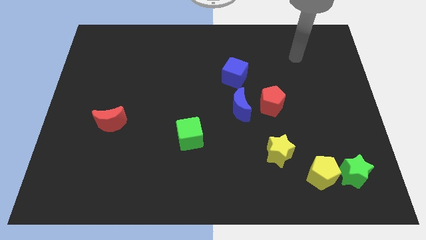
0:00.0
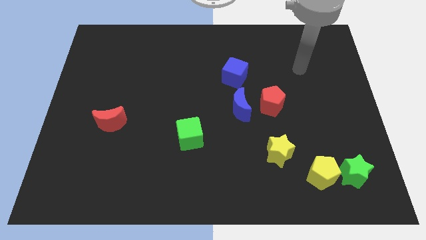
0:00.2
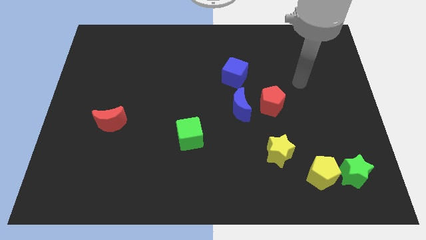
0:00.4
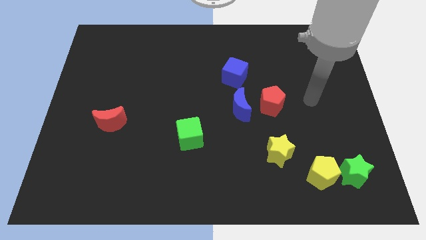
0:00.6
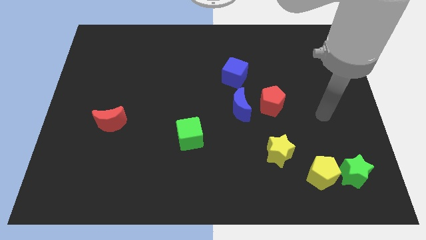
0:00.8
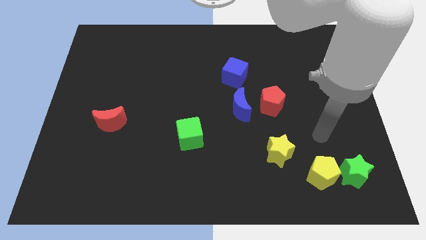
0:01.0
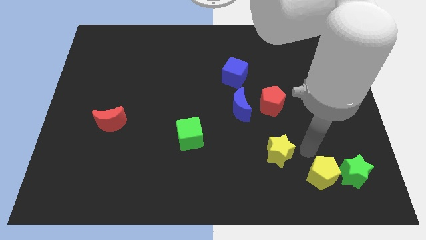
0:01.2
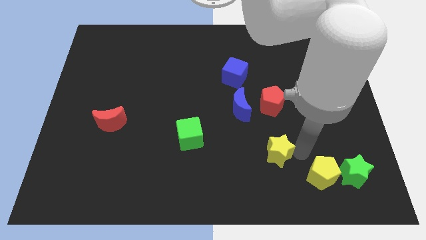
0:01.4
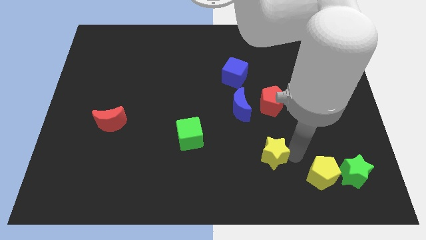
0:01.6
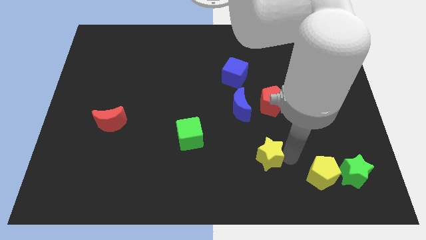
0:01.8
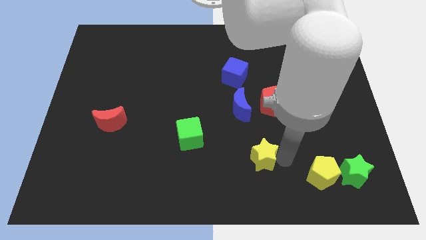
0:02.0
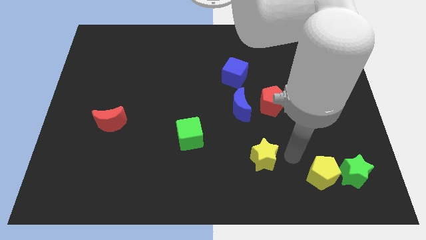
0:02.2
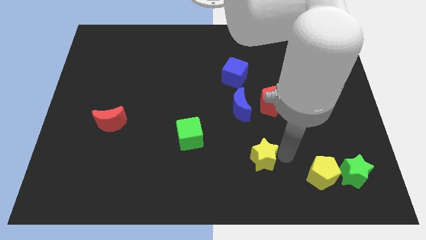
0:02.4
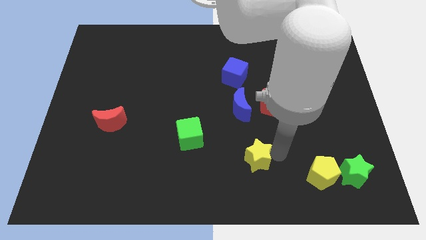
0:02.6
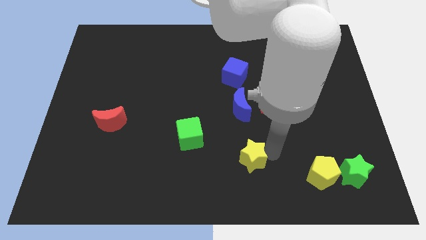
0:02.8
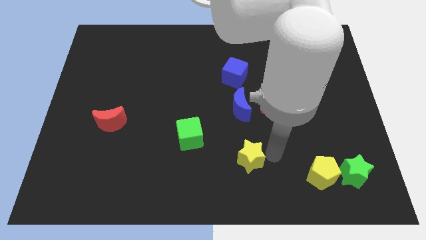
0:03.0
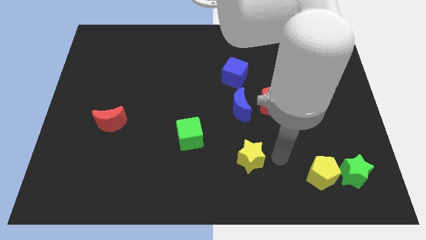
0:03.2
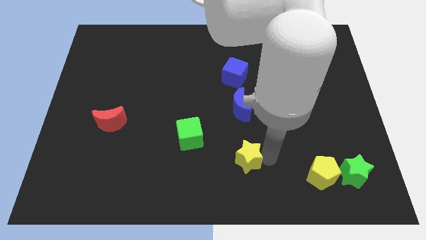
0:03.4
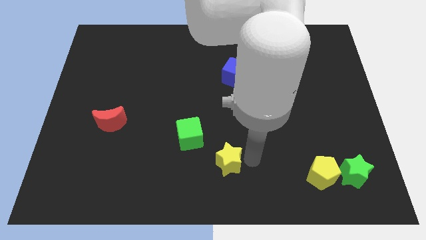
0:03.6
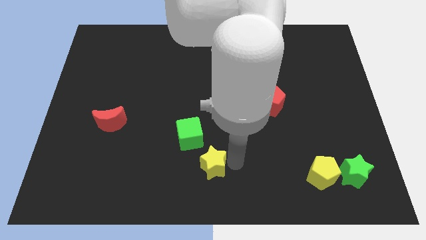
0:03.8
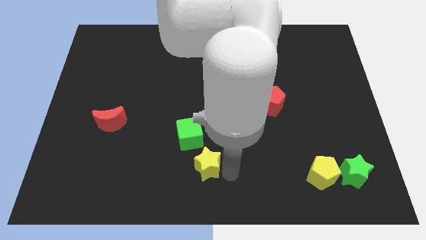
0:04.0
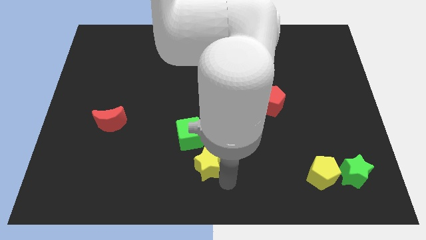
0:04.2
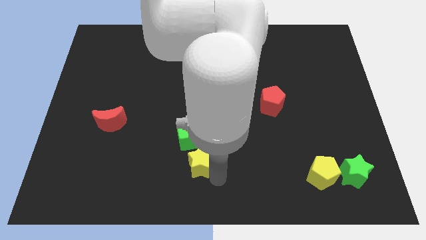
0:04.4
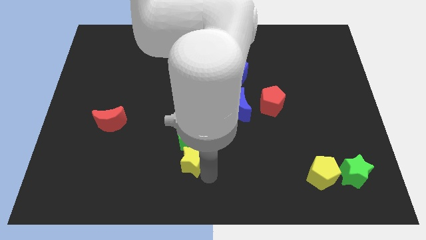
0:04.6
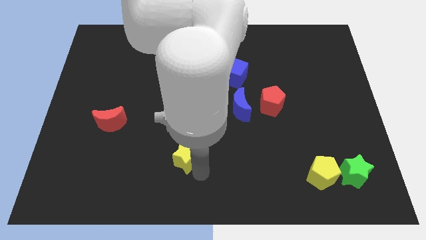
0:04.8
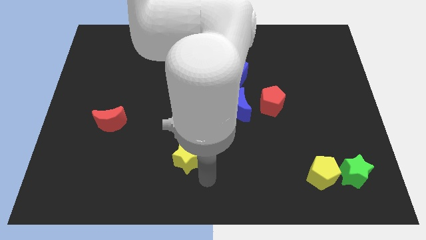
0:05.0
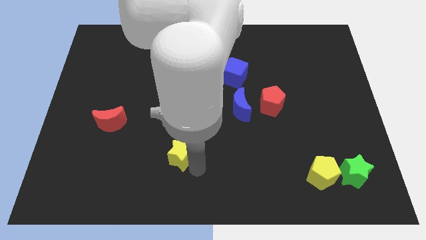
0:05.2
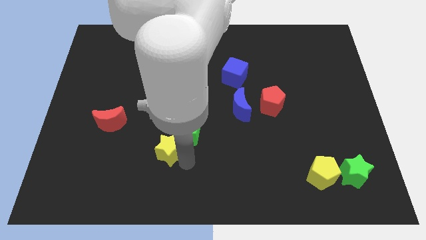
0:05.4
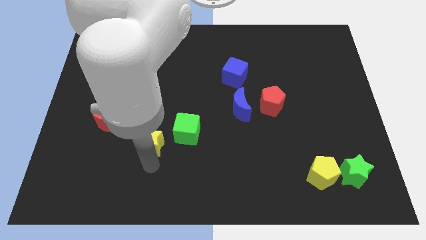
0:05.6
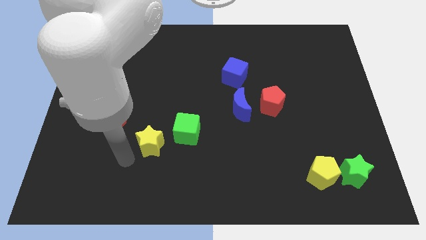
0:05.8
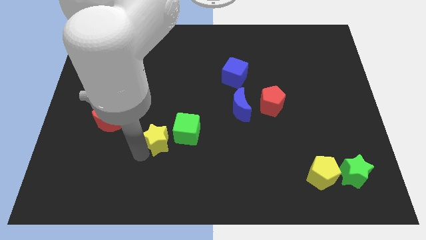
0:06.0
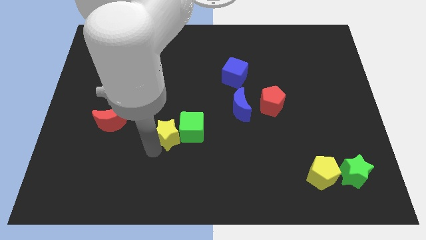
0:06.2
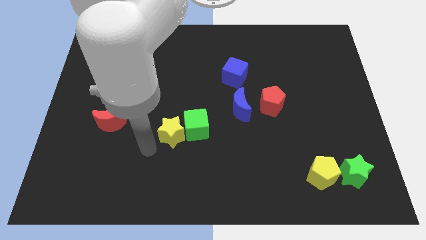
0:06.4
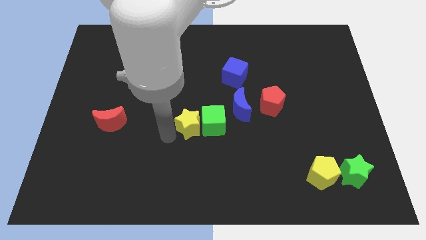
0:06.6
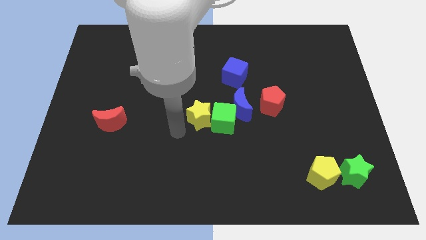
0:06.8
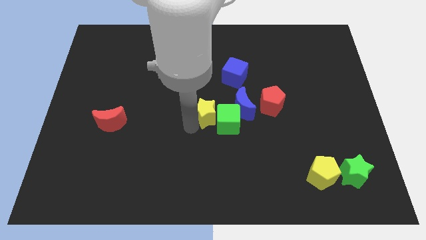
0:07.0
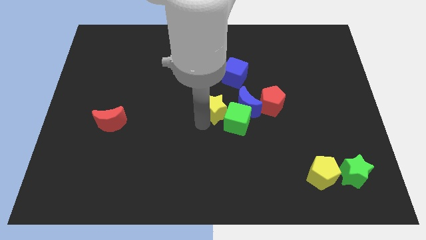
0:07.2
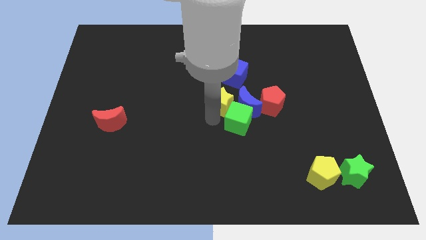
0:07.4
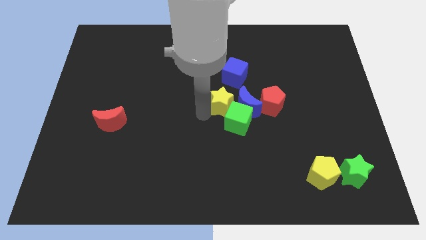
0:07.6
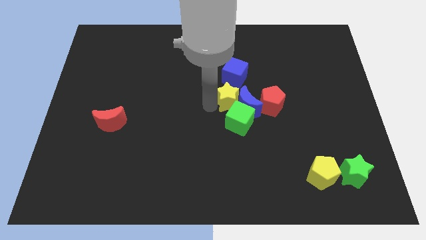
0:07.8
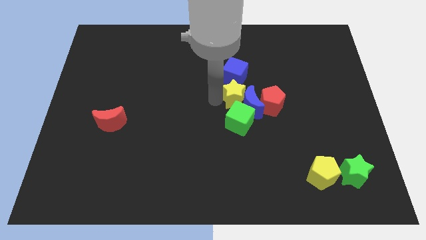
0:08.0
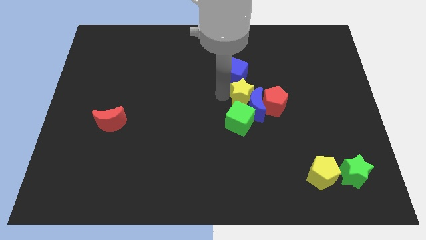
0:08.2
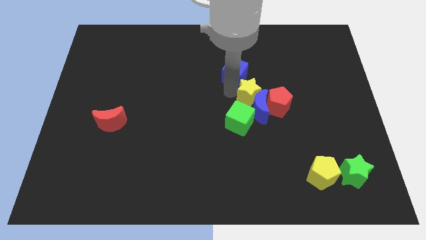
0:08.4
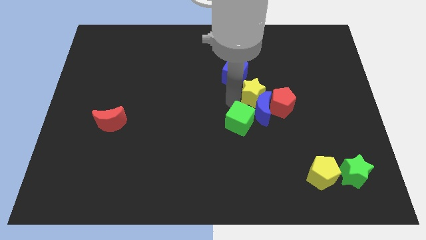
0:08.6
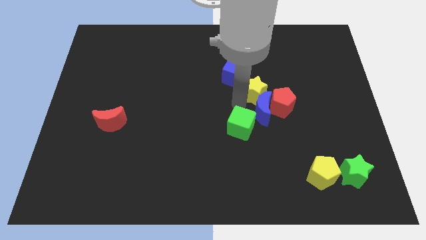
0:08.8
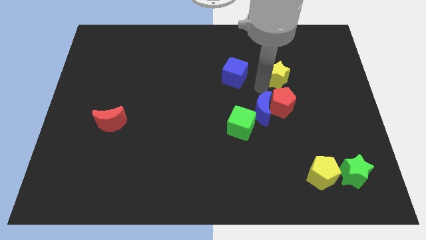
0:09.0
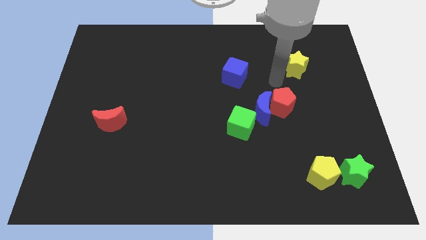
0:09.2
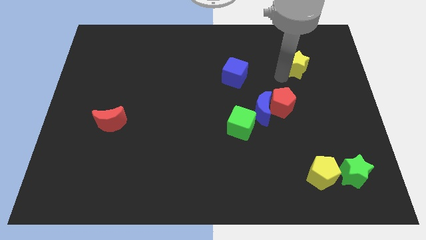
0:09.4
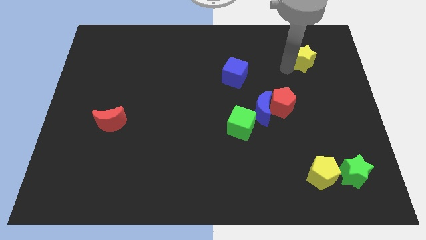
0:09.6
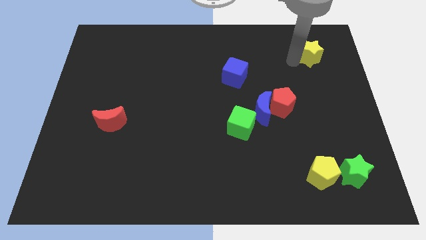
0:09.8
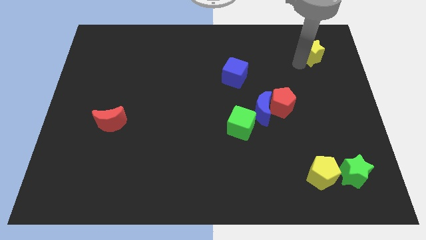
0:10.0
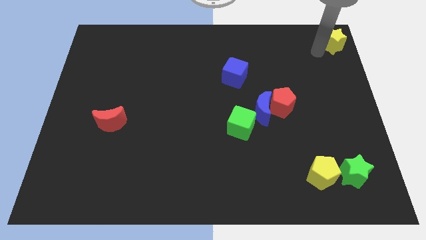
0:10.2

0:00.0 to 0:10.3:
push the yellow star to the upper right corner

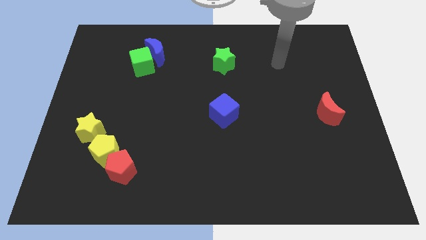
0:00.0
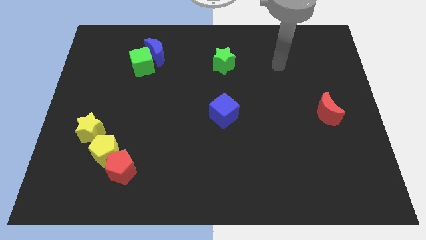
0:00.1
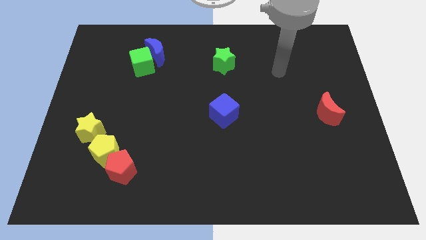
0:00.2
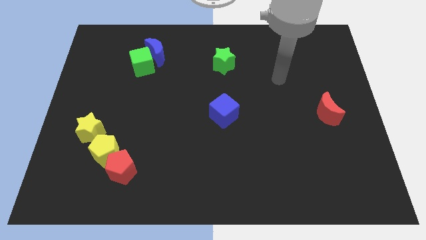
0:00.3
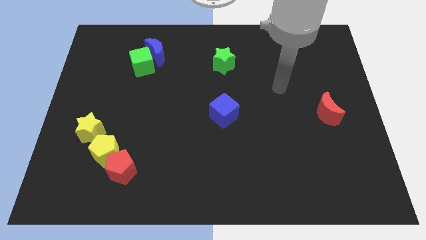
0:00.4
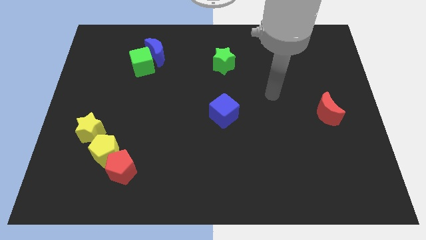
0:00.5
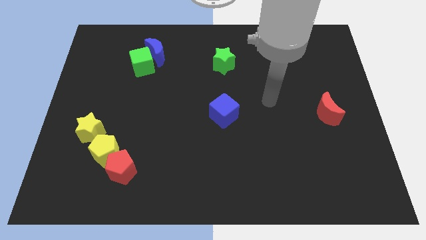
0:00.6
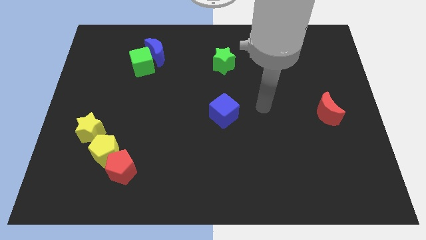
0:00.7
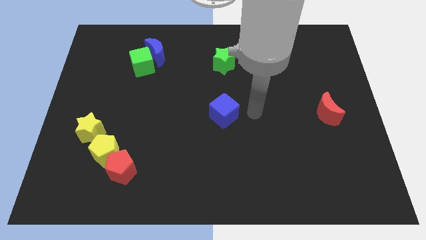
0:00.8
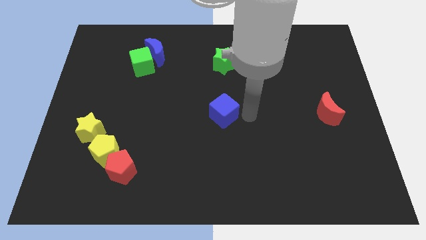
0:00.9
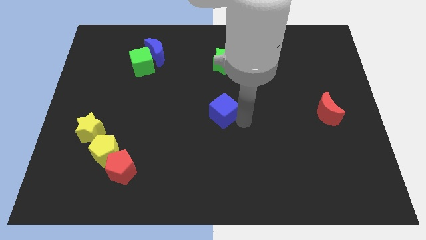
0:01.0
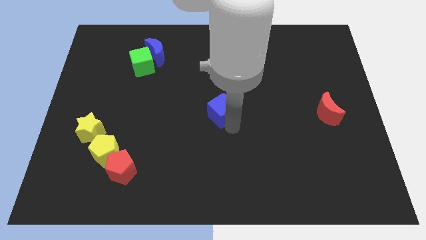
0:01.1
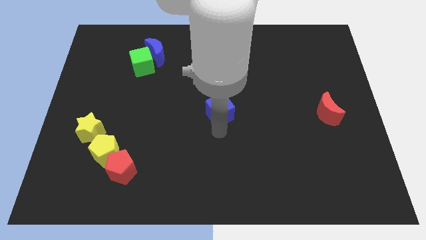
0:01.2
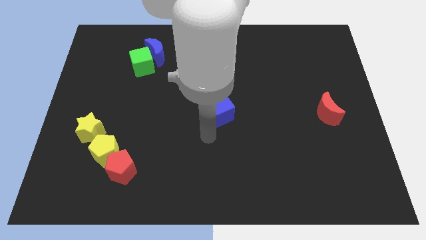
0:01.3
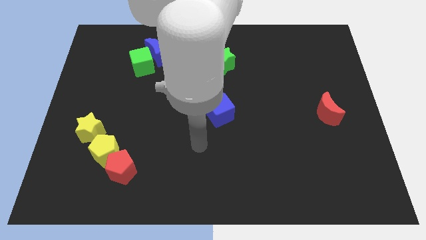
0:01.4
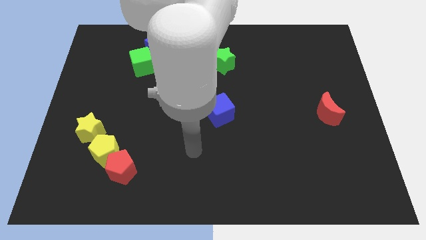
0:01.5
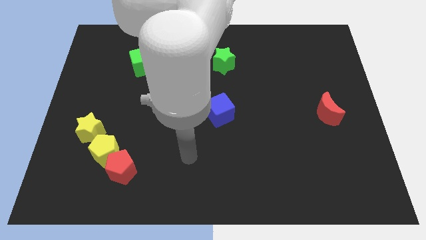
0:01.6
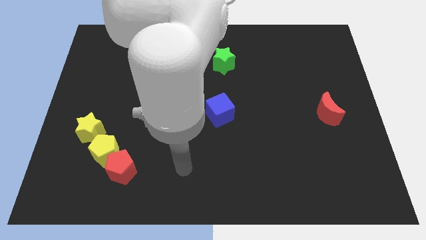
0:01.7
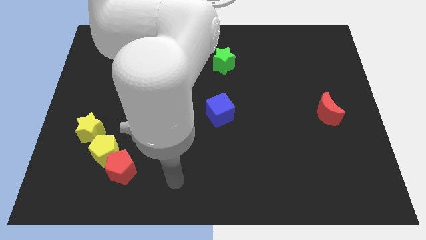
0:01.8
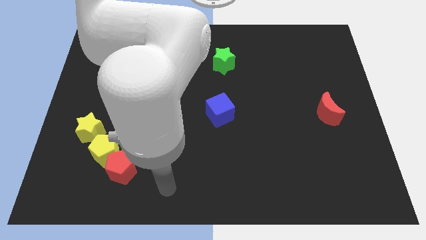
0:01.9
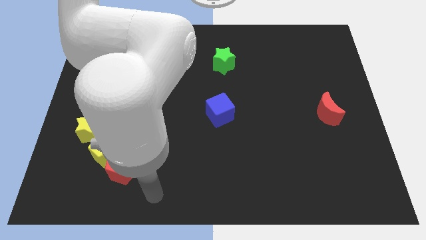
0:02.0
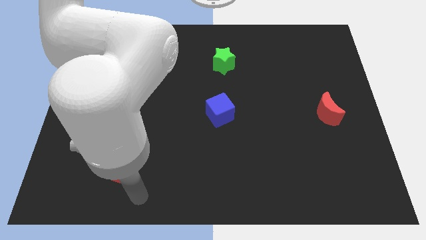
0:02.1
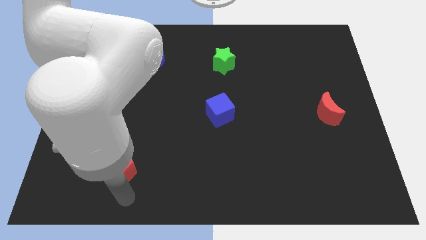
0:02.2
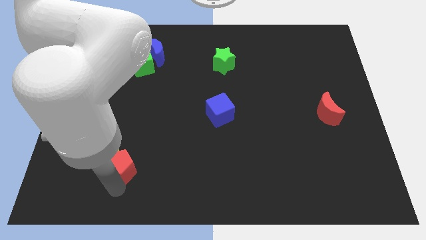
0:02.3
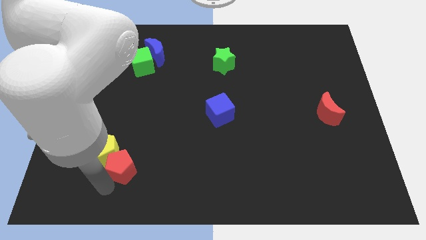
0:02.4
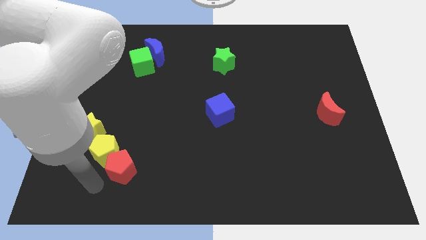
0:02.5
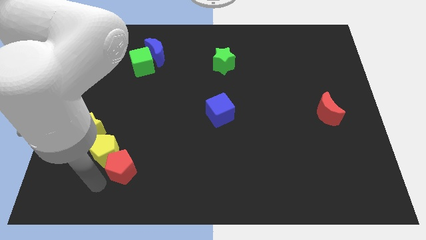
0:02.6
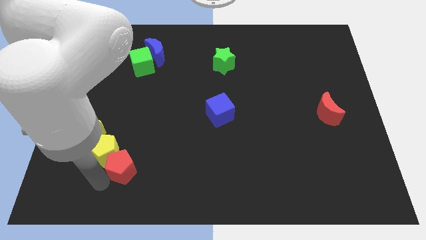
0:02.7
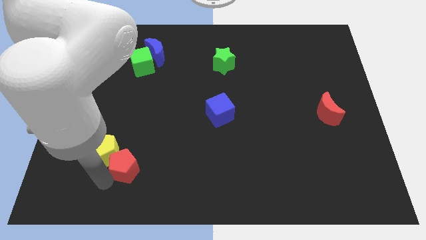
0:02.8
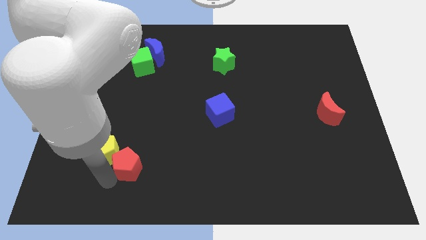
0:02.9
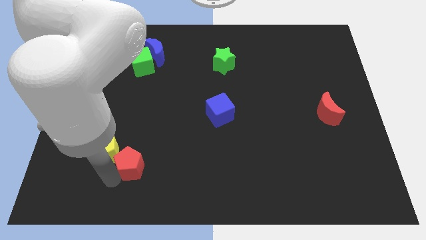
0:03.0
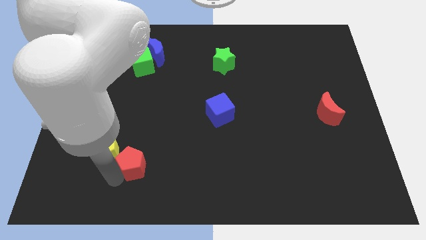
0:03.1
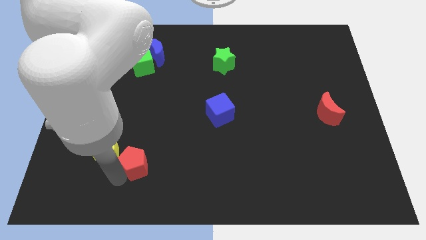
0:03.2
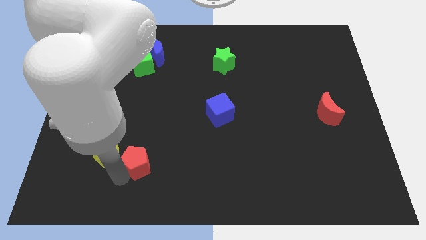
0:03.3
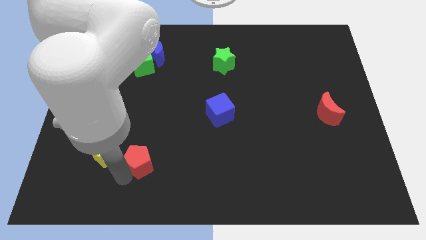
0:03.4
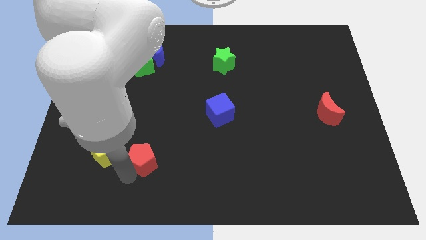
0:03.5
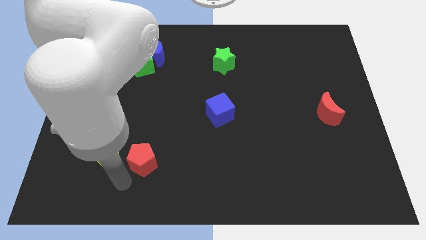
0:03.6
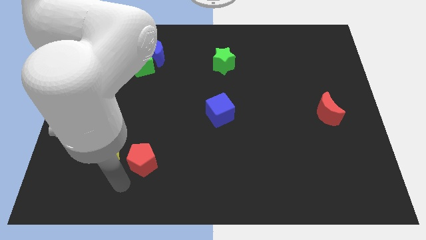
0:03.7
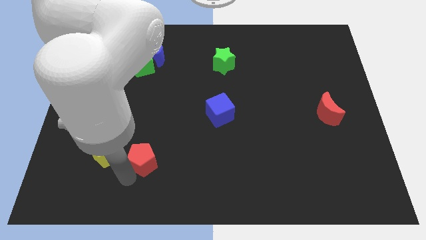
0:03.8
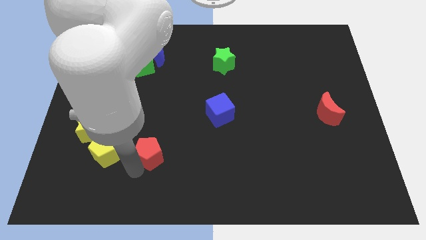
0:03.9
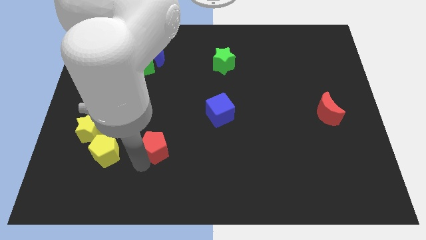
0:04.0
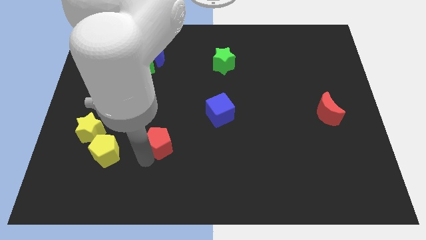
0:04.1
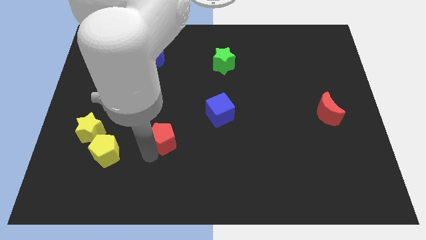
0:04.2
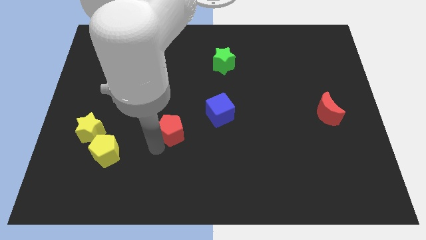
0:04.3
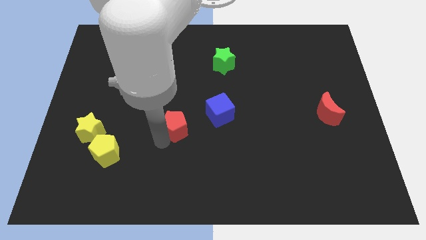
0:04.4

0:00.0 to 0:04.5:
push the red pentagon to the center
